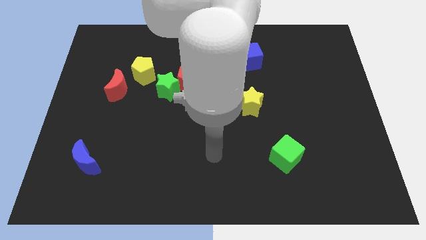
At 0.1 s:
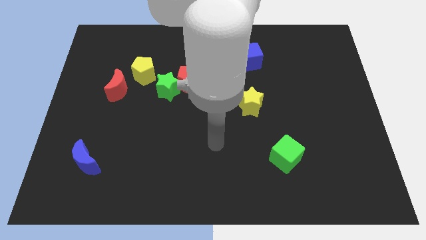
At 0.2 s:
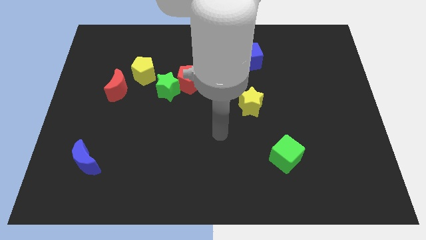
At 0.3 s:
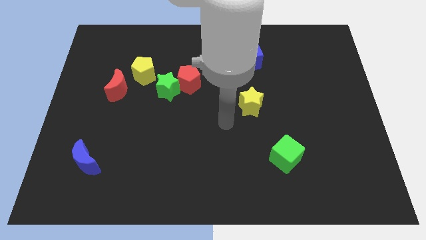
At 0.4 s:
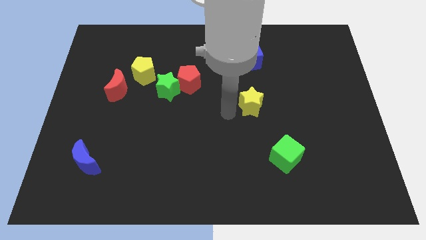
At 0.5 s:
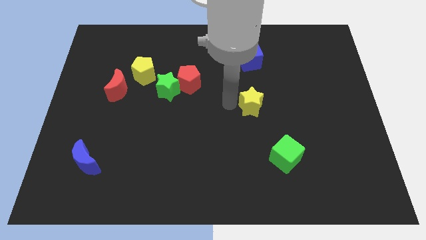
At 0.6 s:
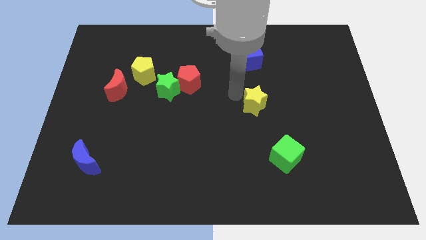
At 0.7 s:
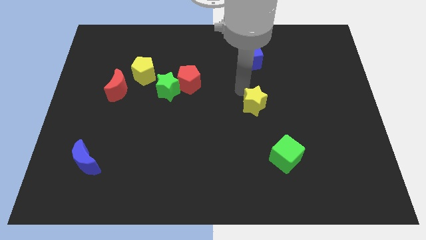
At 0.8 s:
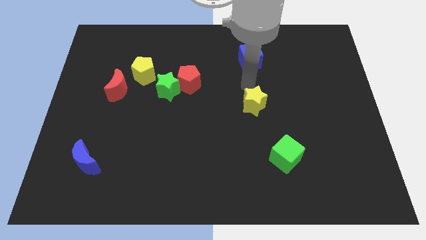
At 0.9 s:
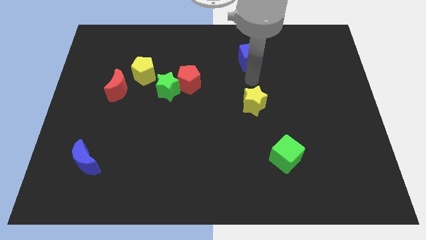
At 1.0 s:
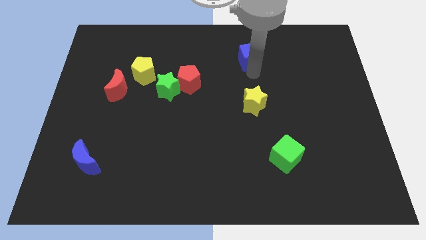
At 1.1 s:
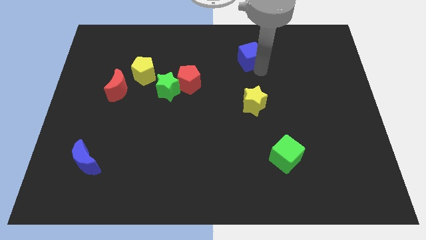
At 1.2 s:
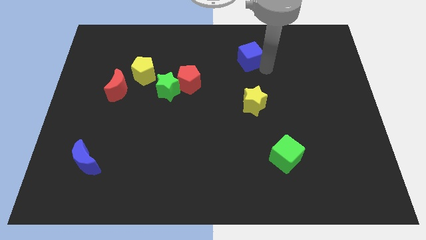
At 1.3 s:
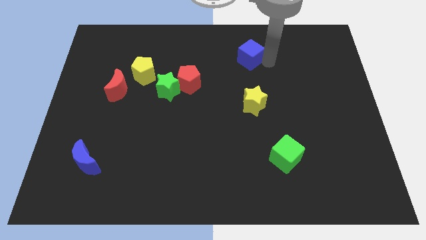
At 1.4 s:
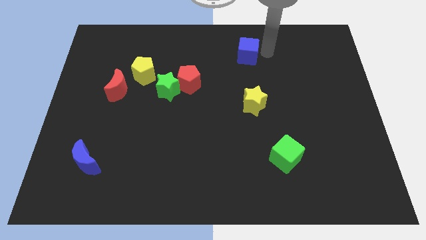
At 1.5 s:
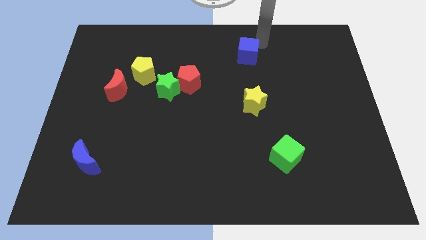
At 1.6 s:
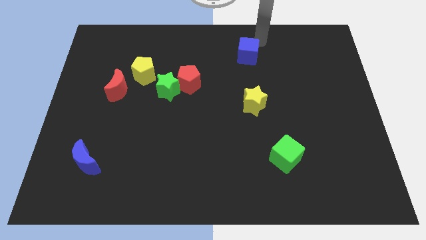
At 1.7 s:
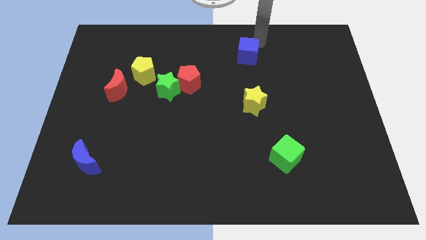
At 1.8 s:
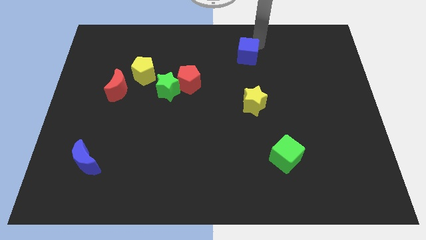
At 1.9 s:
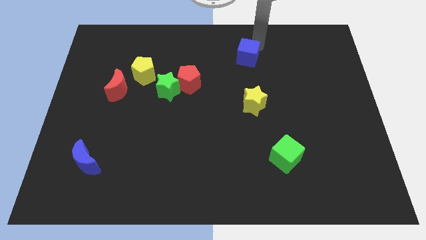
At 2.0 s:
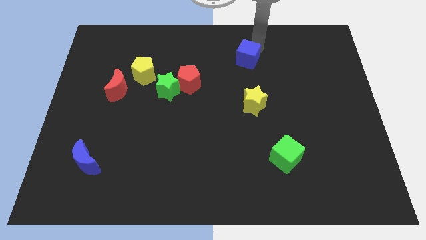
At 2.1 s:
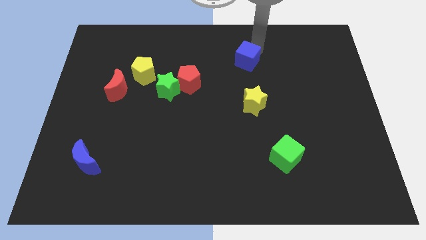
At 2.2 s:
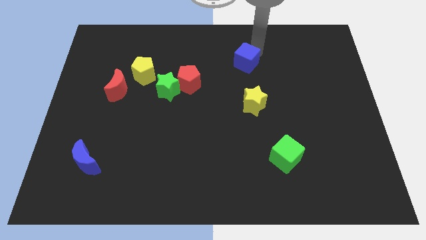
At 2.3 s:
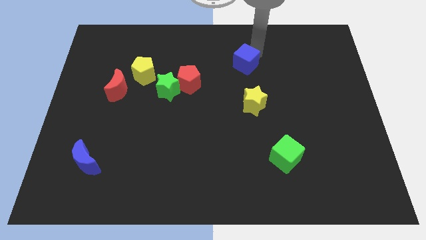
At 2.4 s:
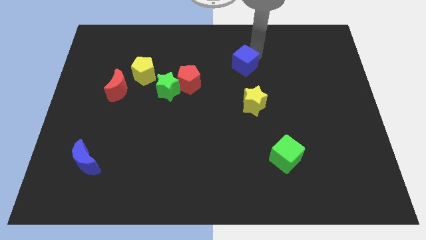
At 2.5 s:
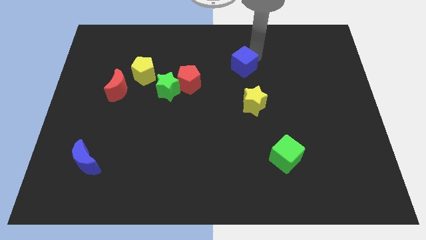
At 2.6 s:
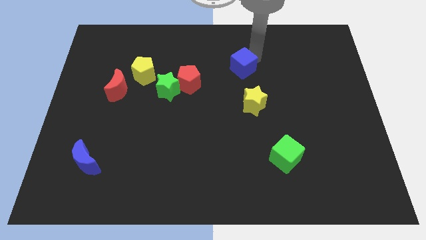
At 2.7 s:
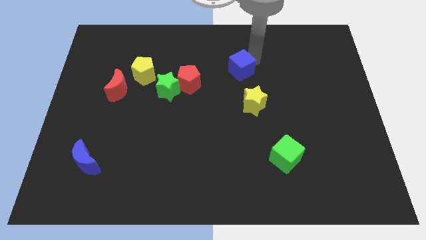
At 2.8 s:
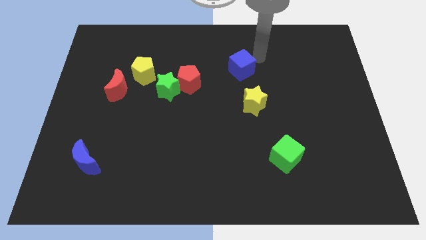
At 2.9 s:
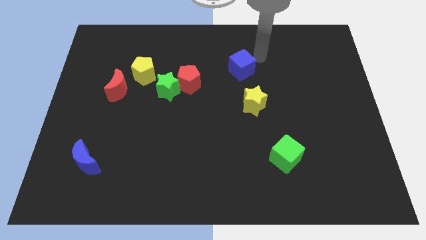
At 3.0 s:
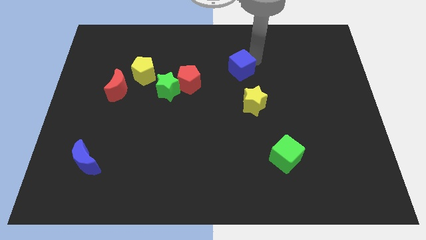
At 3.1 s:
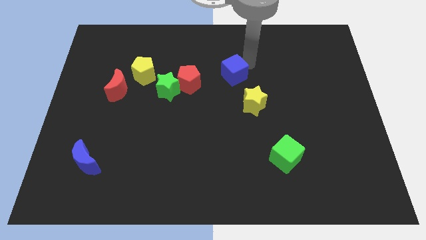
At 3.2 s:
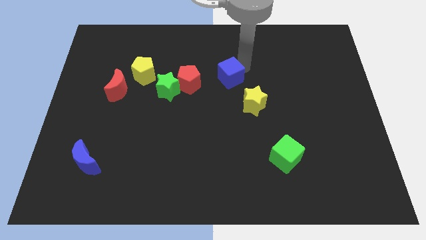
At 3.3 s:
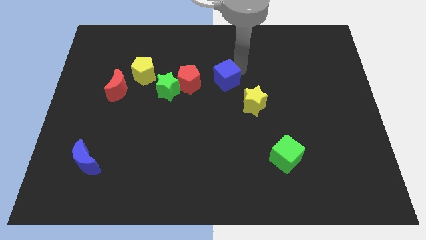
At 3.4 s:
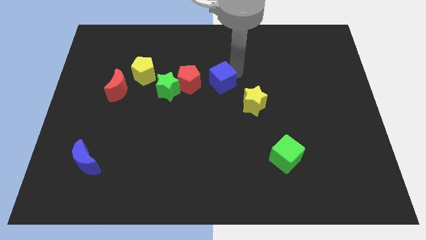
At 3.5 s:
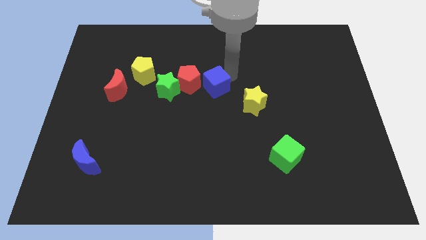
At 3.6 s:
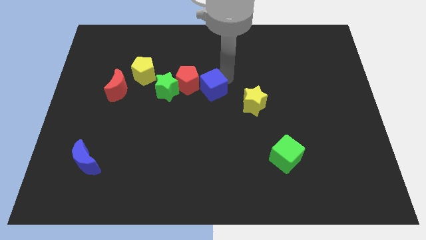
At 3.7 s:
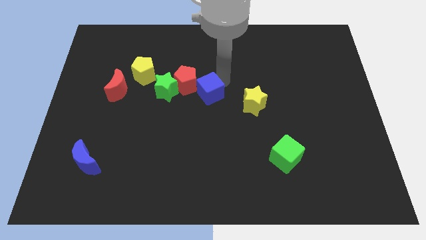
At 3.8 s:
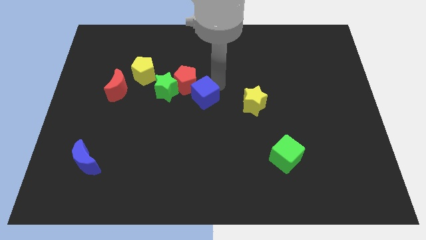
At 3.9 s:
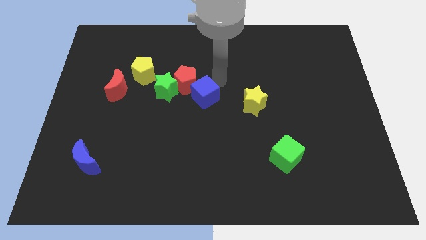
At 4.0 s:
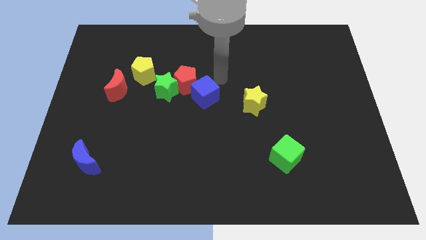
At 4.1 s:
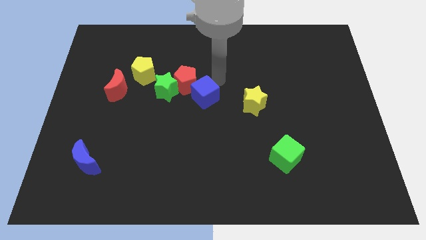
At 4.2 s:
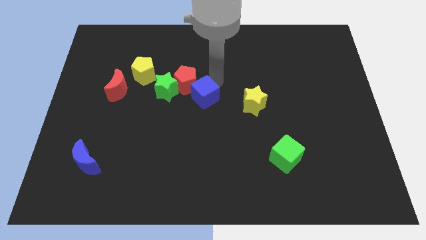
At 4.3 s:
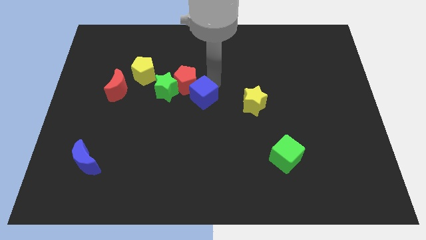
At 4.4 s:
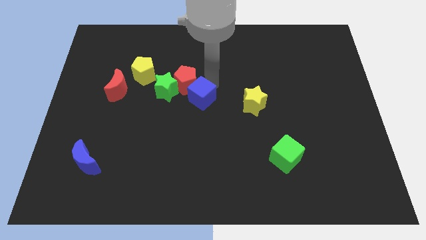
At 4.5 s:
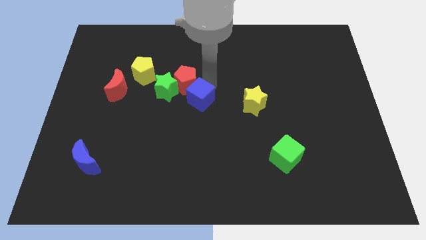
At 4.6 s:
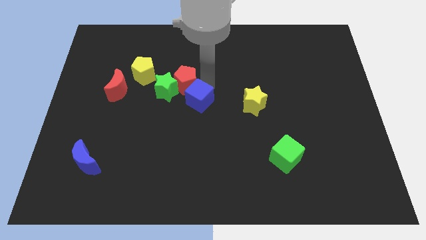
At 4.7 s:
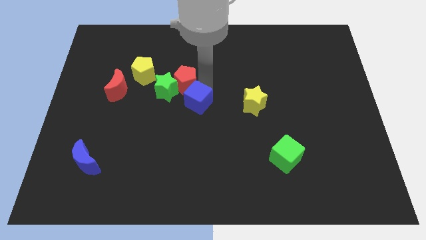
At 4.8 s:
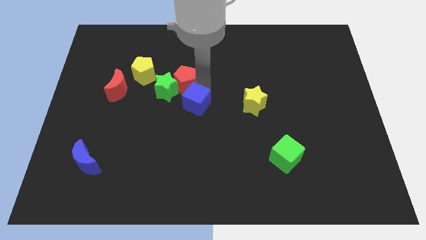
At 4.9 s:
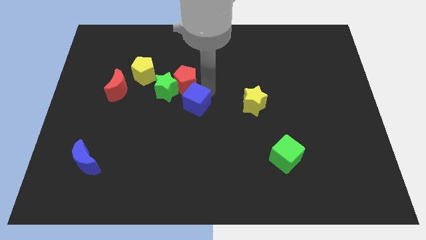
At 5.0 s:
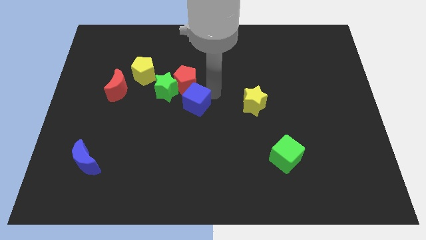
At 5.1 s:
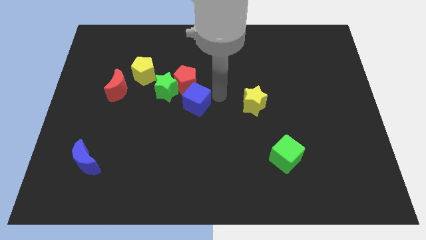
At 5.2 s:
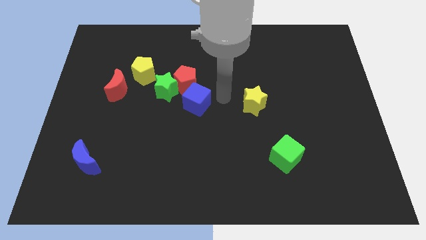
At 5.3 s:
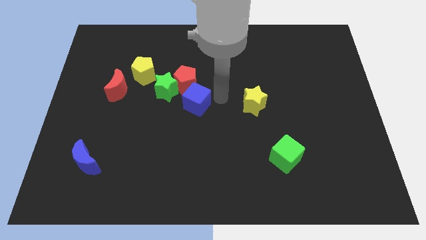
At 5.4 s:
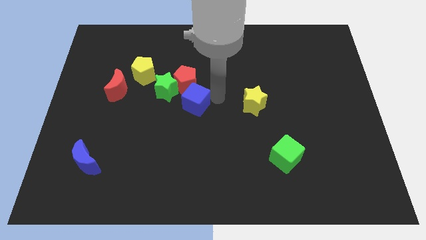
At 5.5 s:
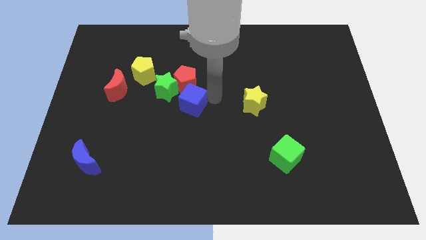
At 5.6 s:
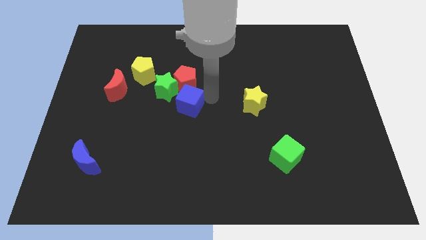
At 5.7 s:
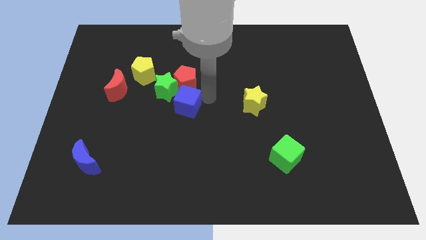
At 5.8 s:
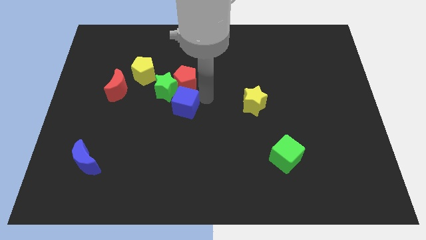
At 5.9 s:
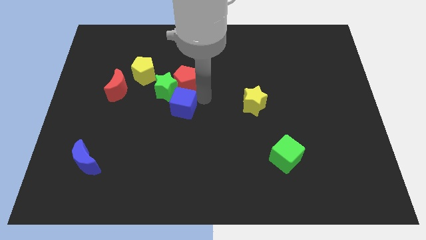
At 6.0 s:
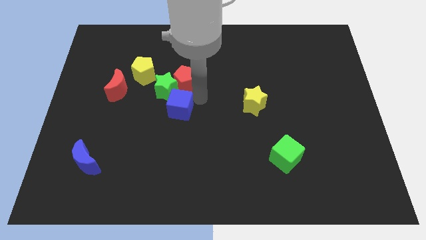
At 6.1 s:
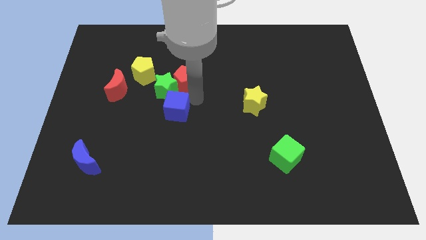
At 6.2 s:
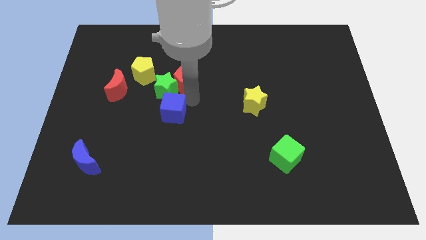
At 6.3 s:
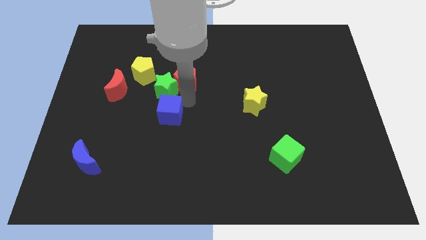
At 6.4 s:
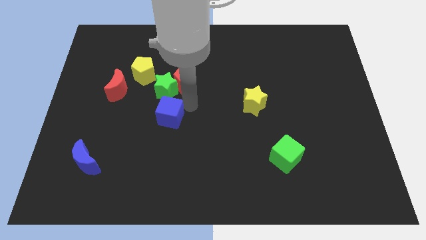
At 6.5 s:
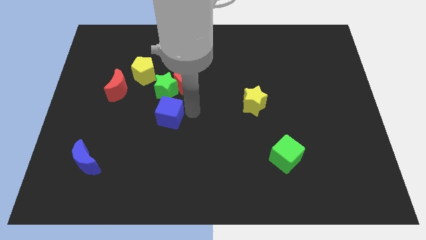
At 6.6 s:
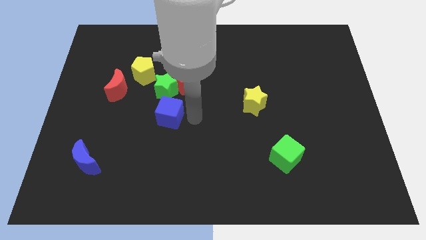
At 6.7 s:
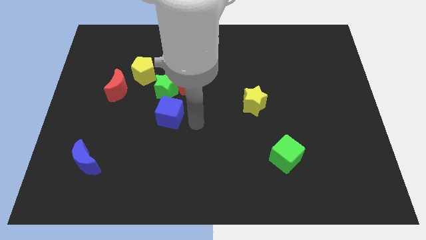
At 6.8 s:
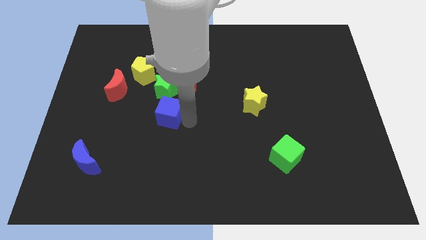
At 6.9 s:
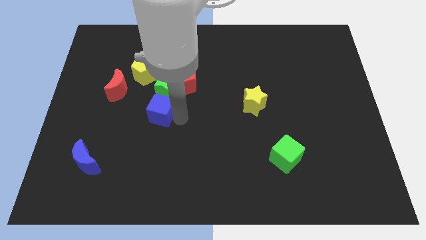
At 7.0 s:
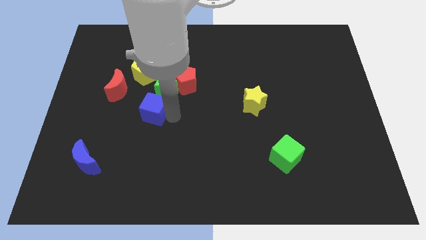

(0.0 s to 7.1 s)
move the blue cube to the bottom of the yellow pentagon

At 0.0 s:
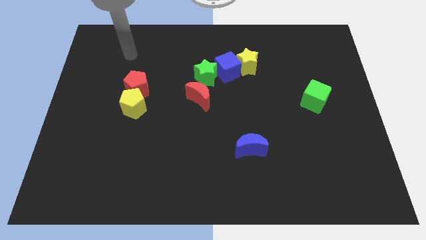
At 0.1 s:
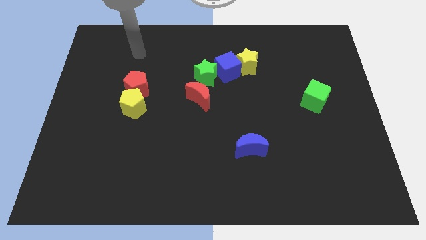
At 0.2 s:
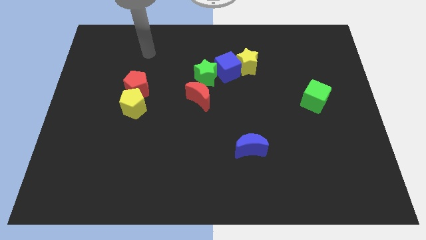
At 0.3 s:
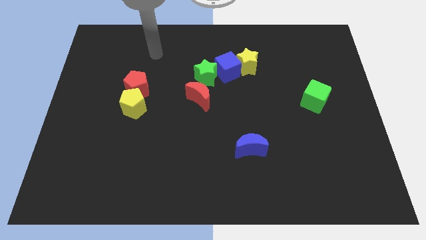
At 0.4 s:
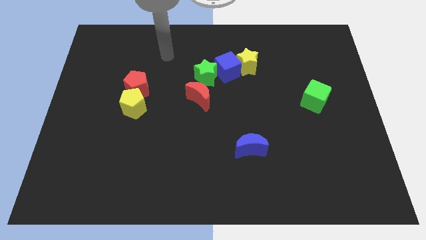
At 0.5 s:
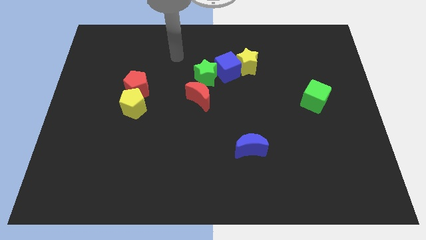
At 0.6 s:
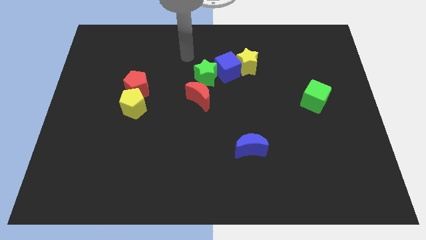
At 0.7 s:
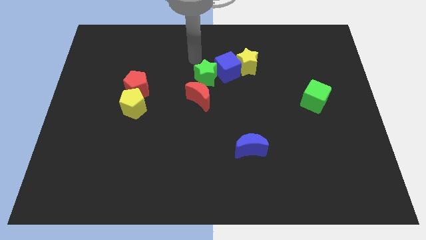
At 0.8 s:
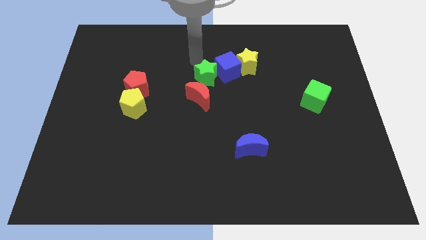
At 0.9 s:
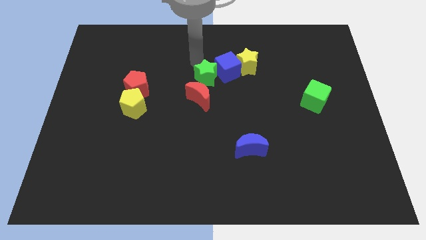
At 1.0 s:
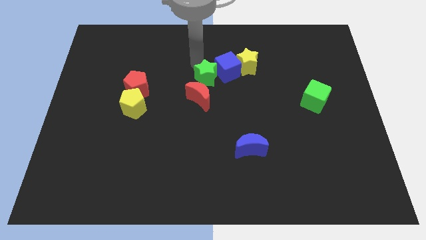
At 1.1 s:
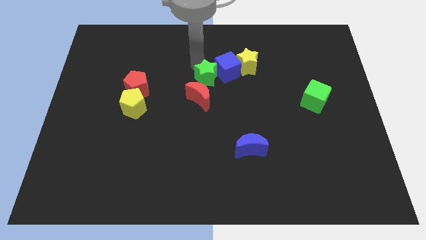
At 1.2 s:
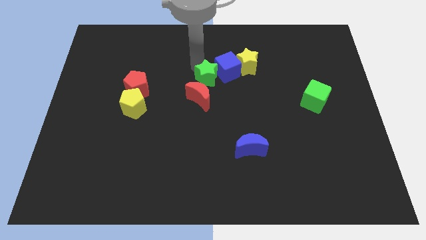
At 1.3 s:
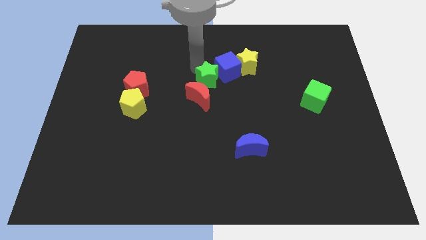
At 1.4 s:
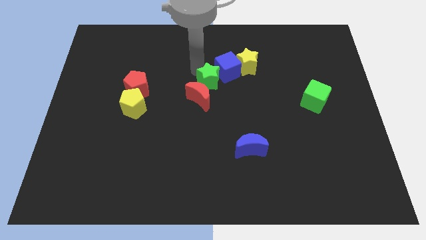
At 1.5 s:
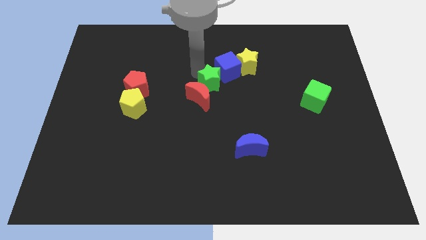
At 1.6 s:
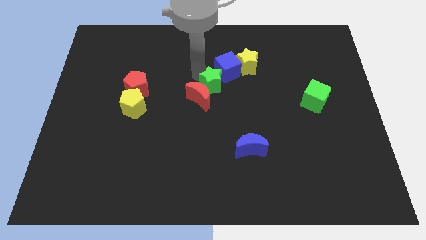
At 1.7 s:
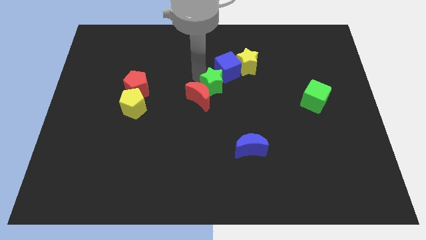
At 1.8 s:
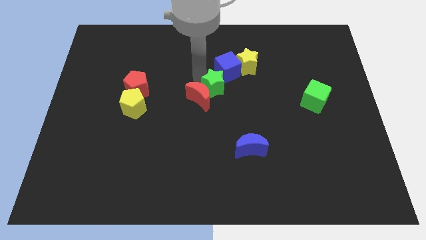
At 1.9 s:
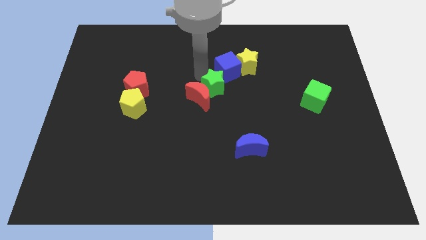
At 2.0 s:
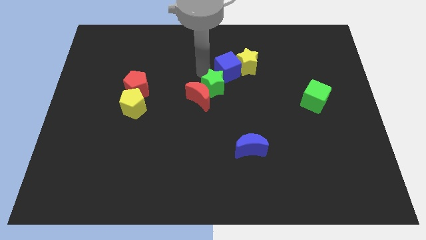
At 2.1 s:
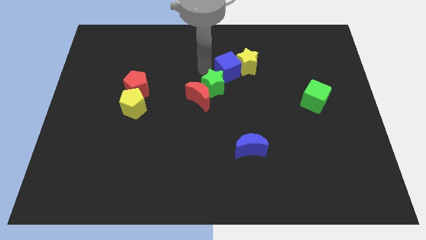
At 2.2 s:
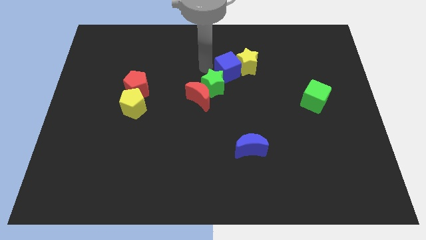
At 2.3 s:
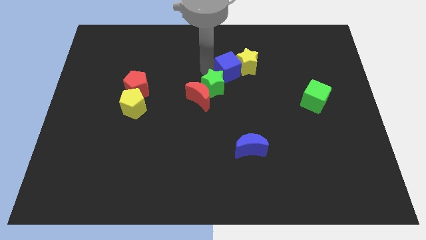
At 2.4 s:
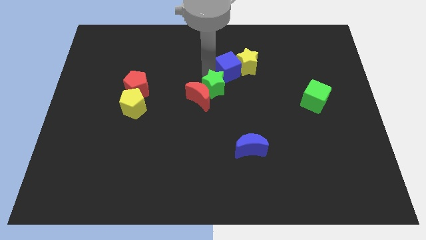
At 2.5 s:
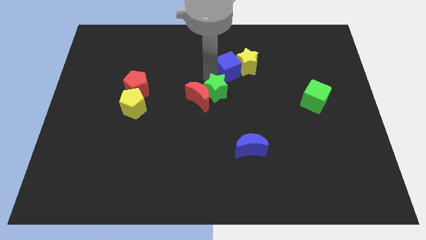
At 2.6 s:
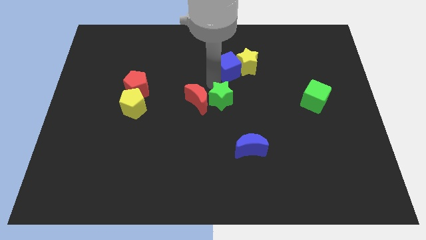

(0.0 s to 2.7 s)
put the green star to the bottom right of the red moon
